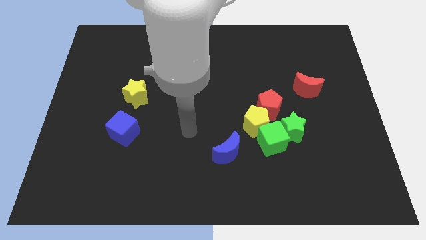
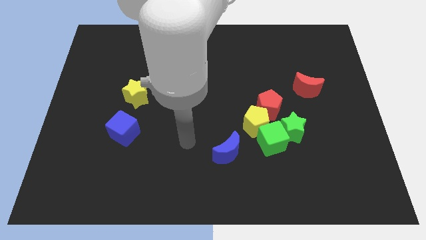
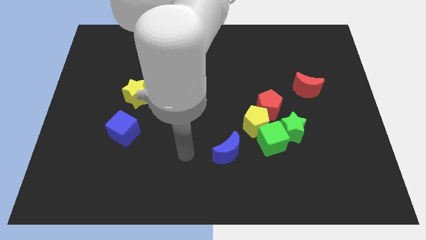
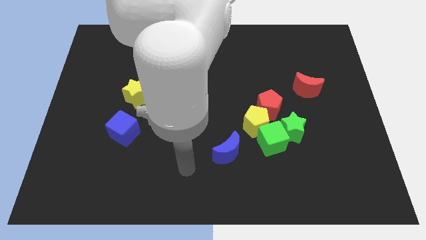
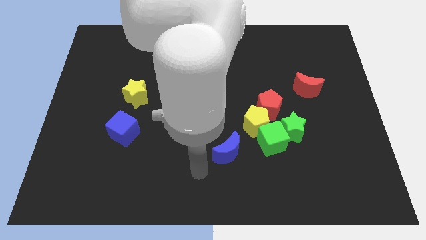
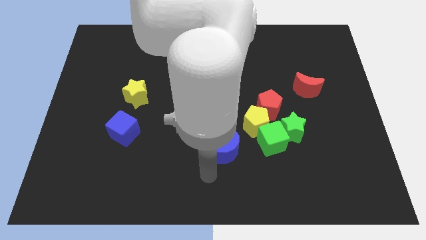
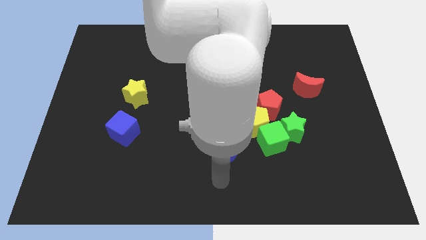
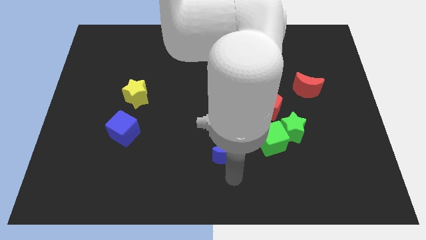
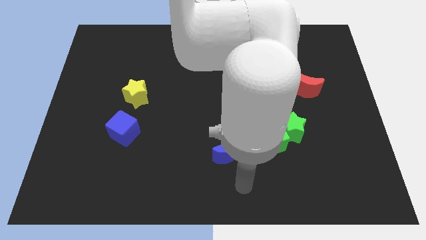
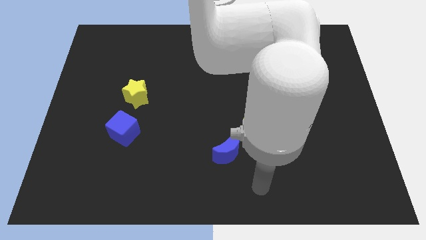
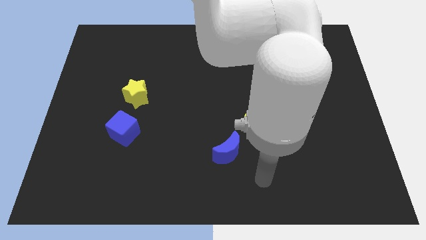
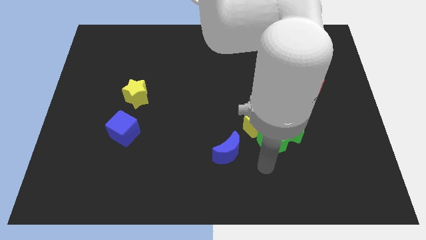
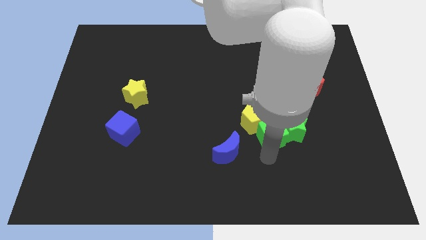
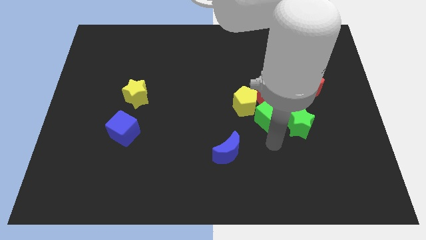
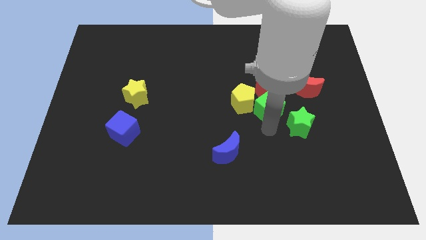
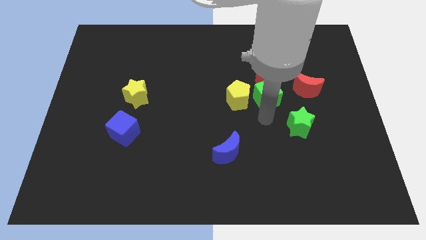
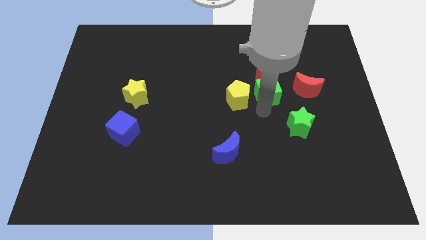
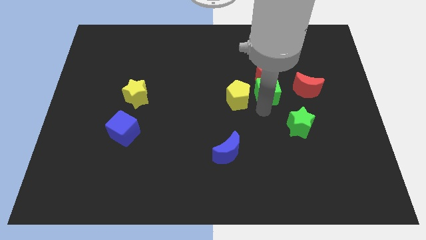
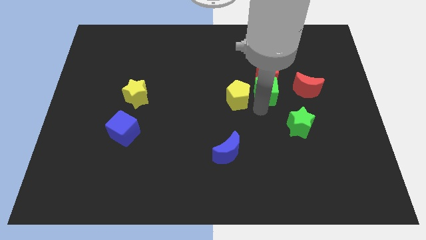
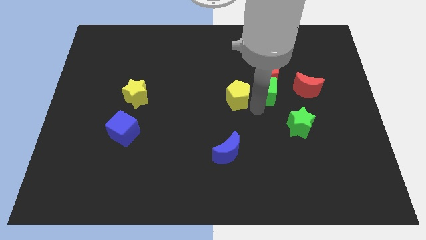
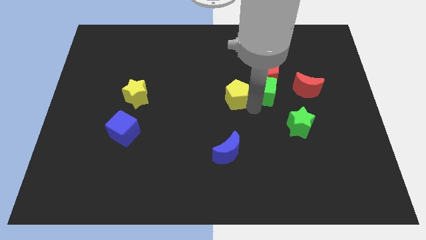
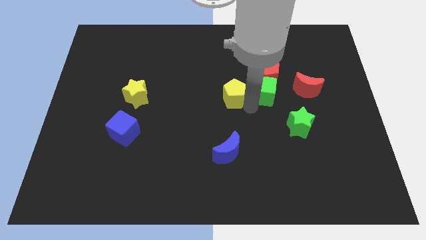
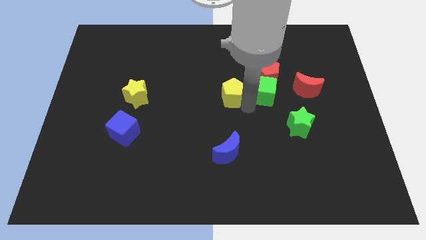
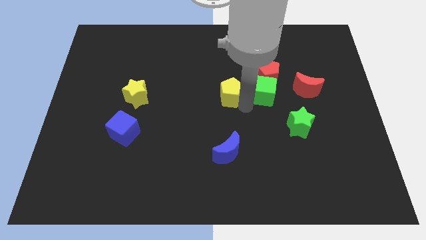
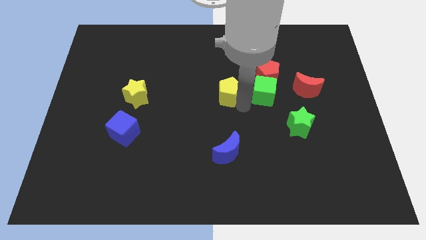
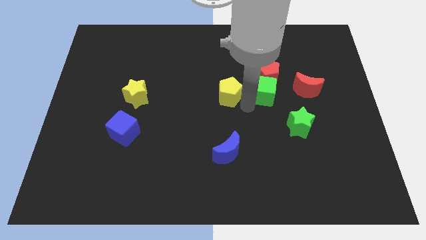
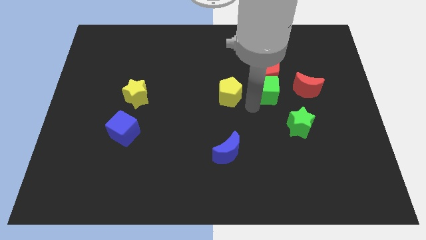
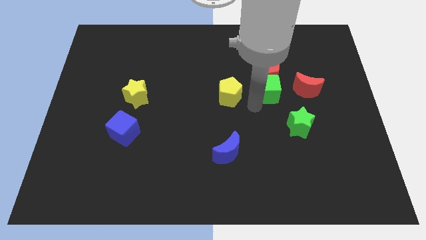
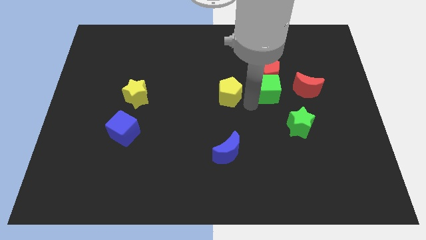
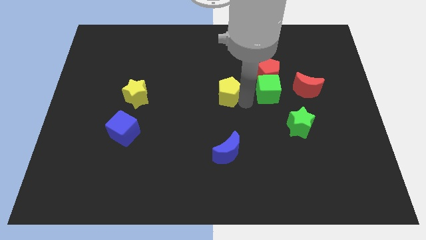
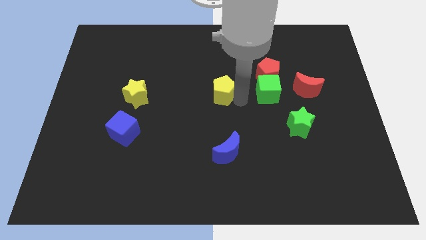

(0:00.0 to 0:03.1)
move the yellow pentagon away from the group of blocks

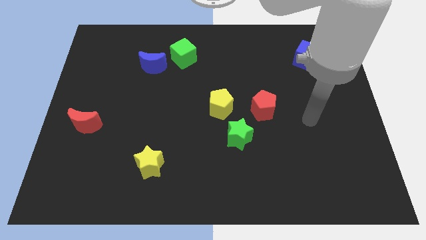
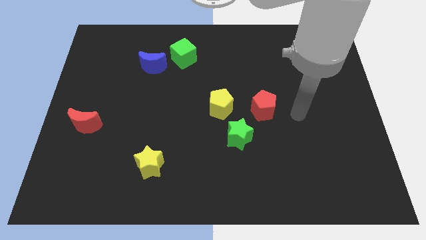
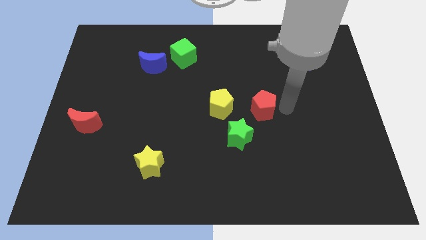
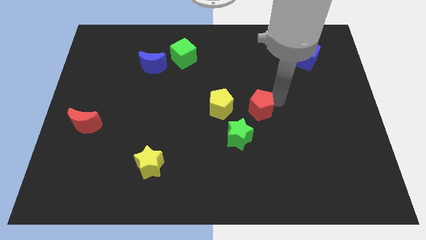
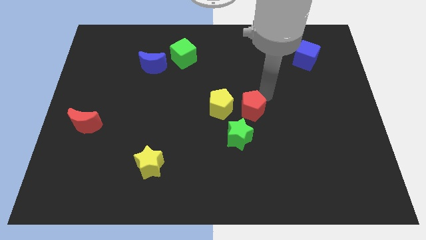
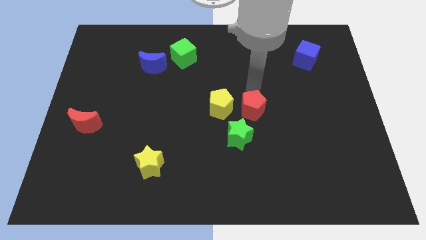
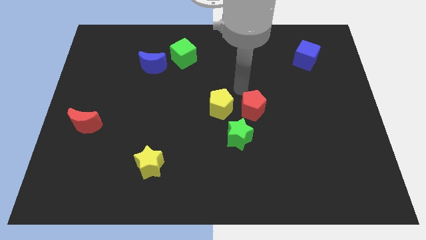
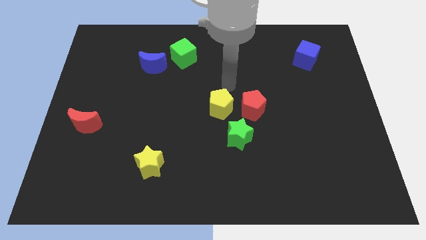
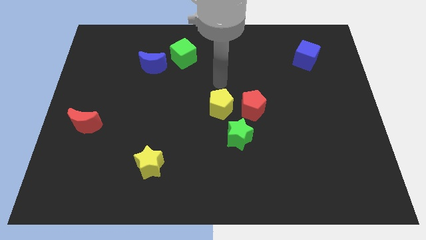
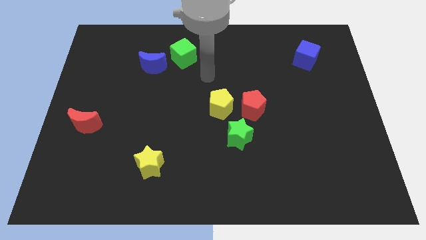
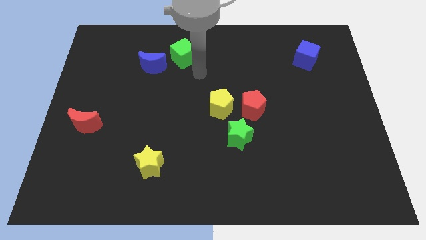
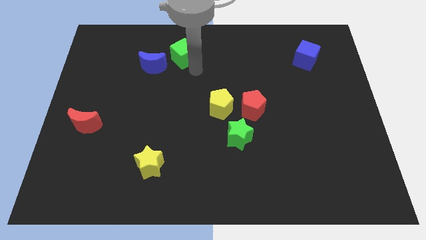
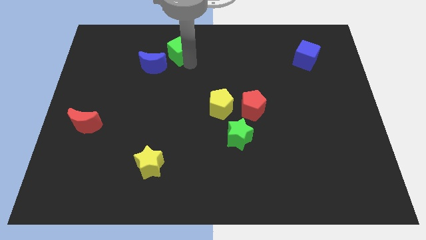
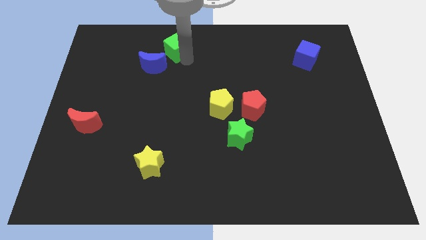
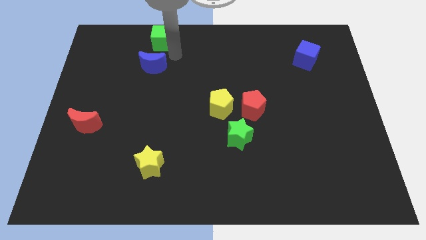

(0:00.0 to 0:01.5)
move the blue moon away from the green cube

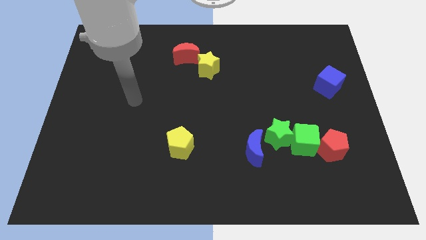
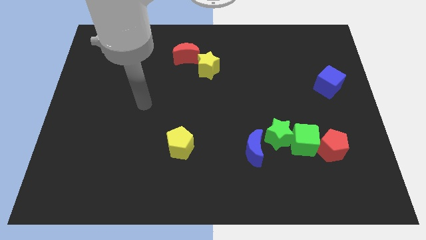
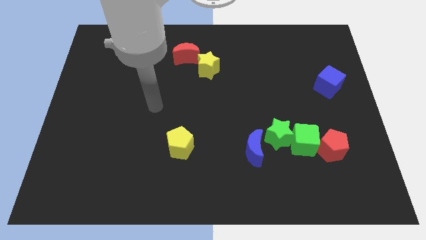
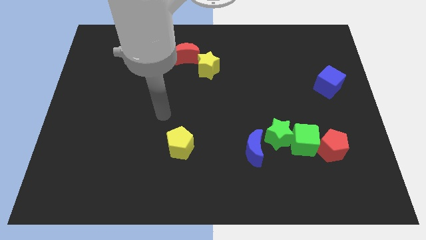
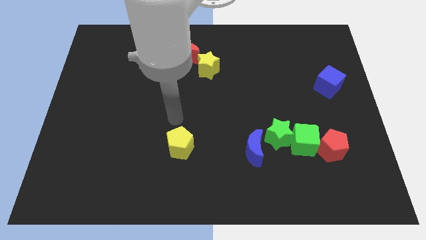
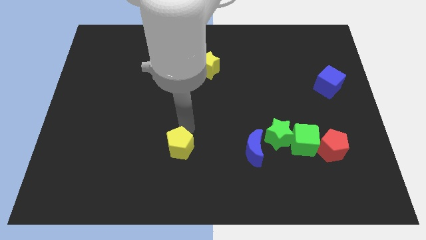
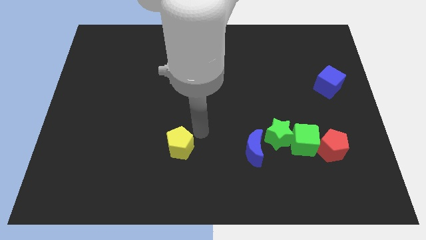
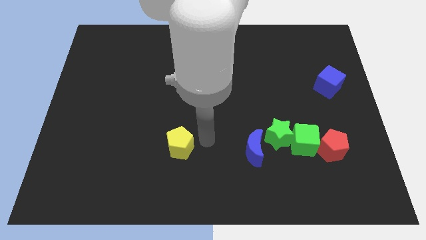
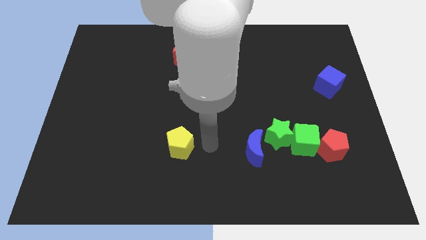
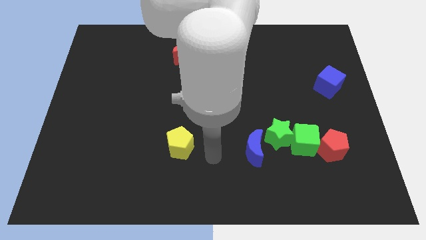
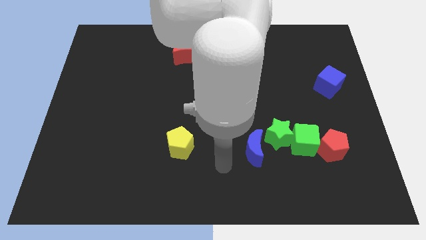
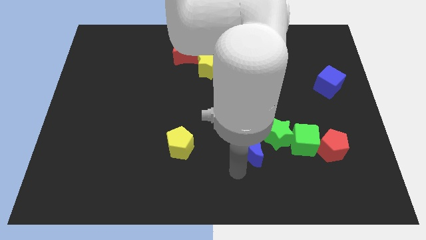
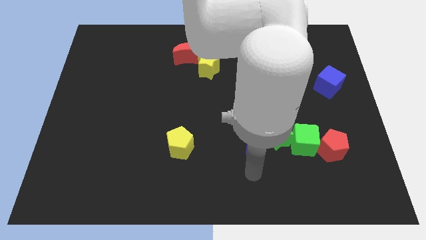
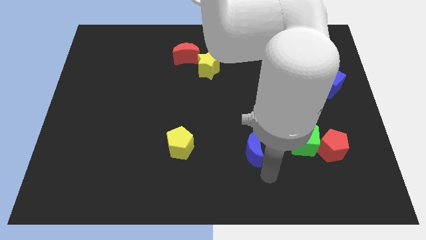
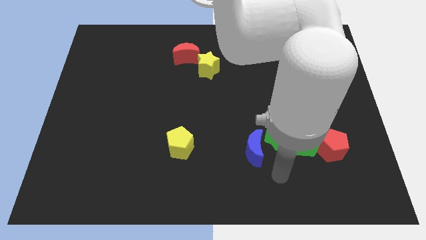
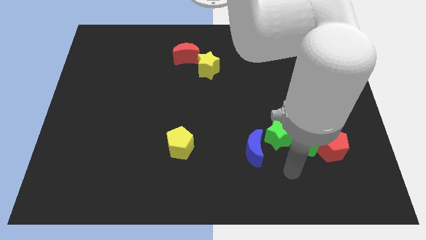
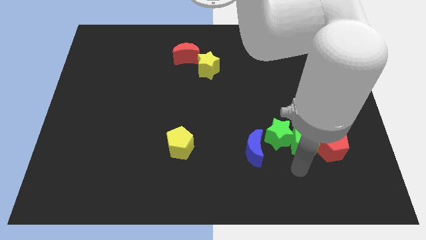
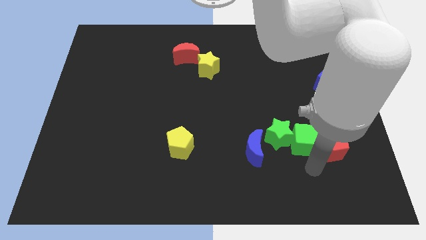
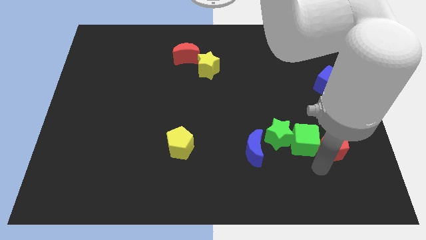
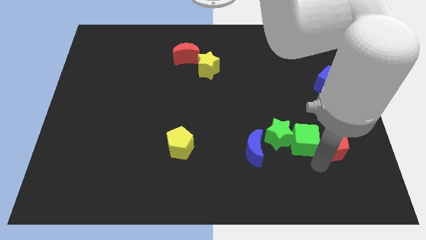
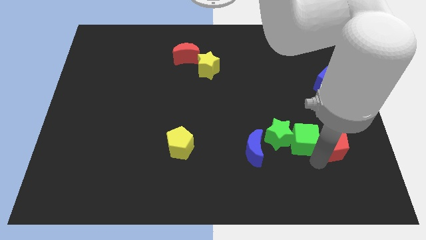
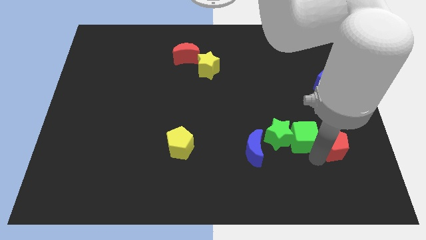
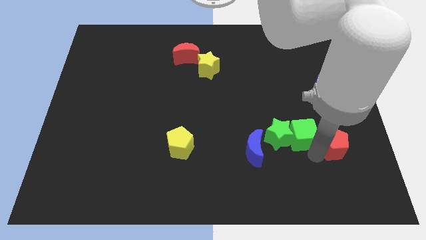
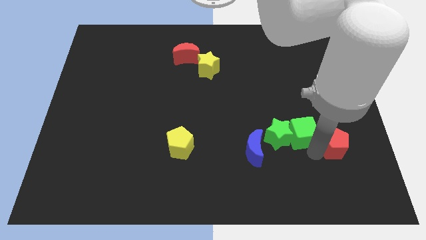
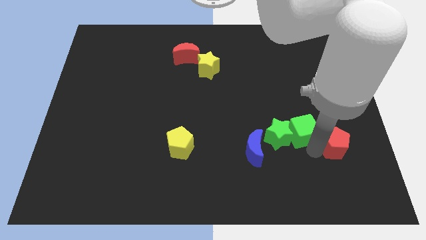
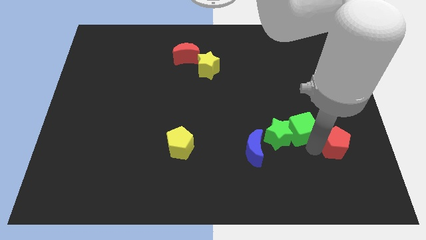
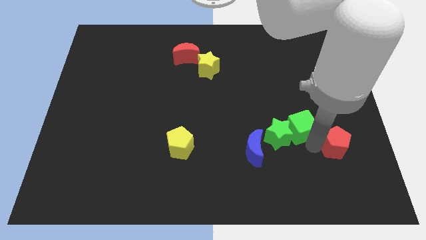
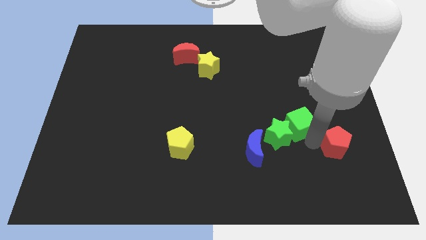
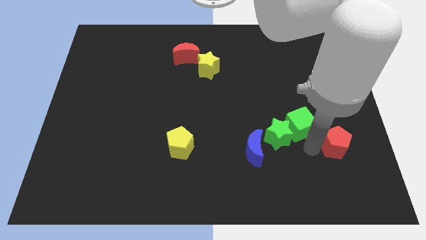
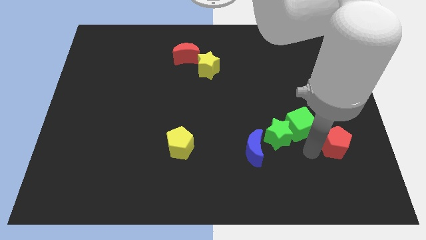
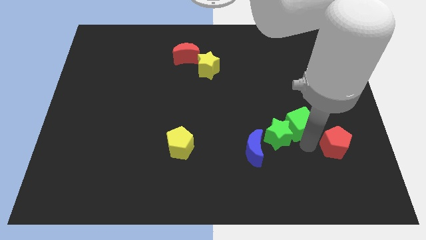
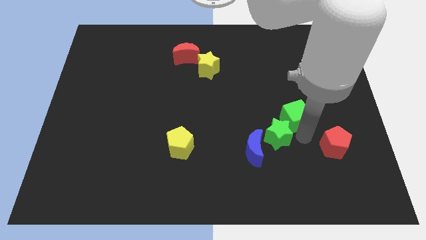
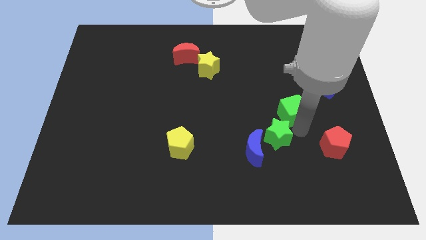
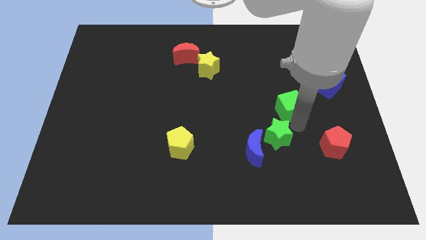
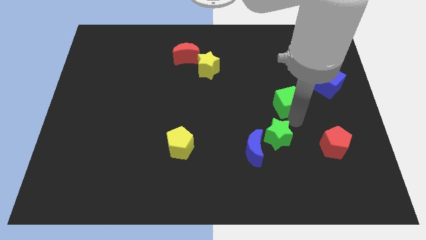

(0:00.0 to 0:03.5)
move the green cube away from the green star and red pentagon

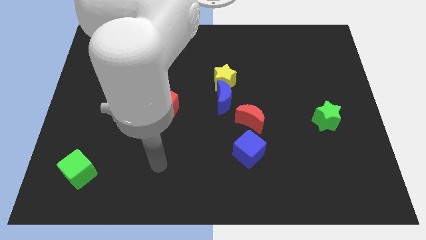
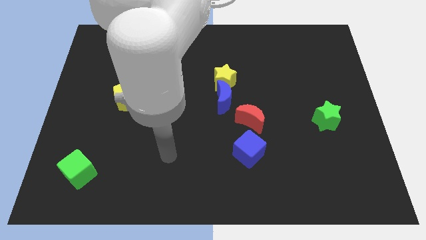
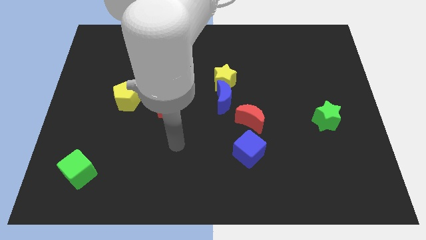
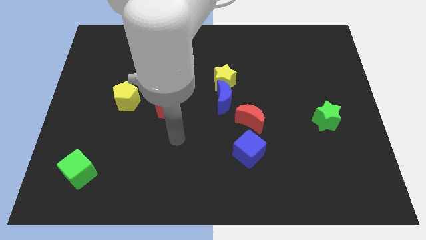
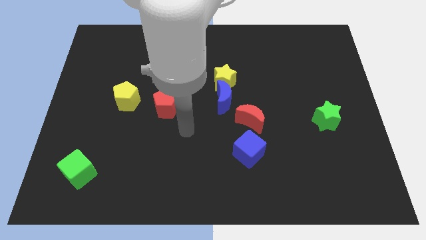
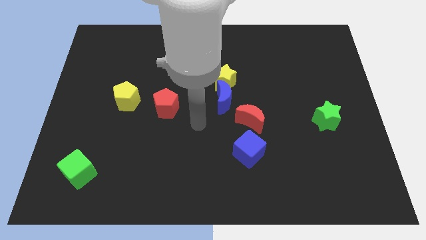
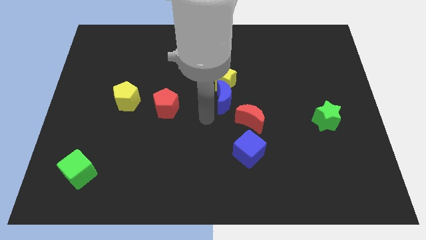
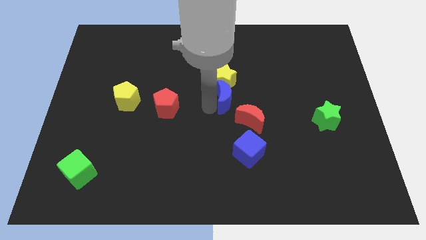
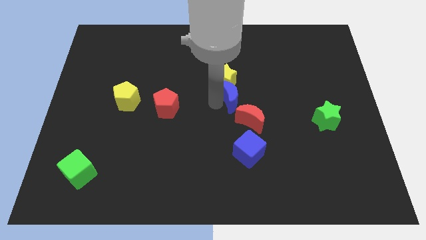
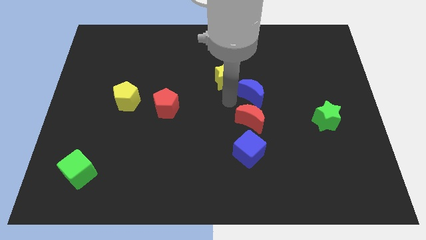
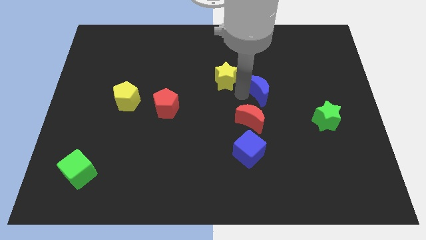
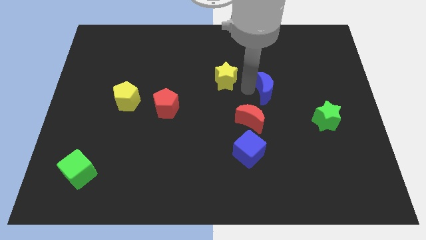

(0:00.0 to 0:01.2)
move the yellow star away from the blue moon

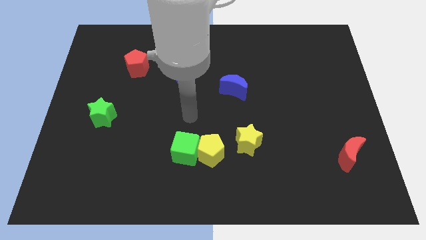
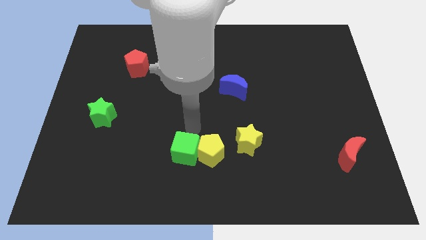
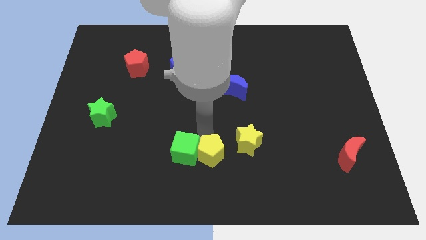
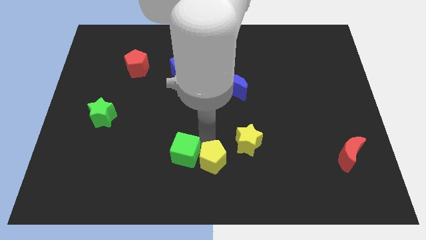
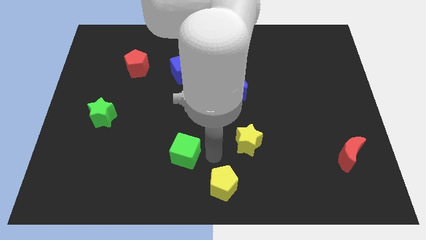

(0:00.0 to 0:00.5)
separate the green cube from the yellow pentagon
